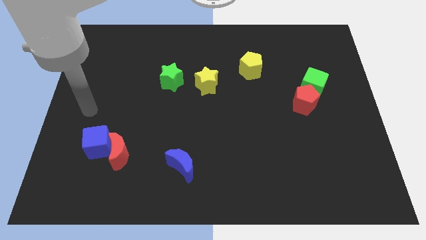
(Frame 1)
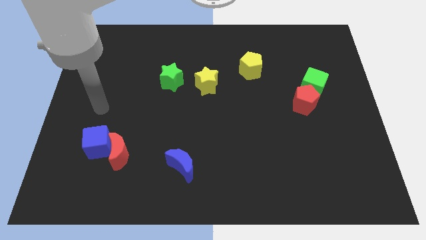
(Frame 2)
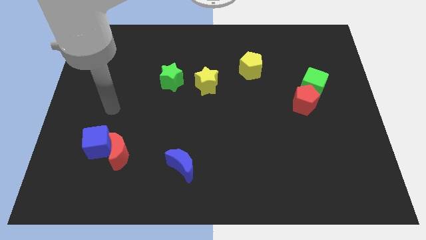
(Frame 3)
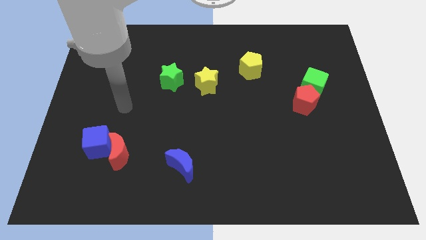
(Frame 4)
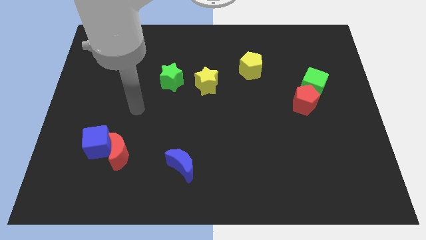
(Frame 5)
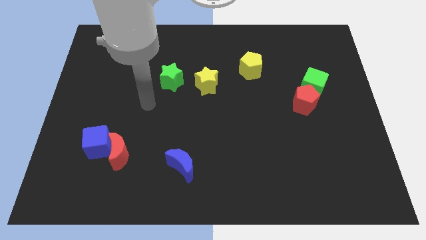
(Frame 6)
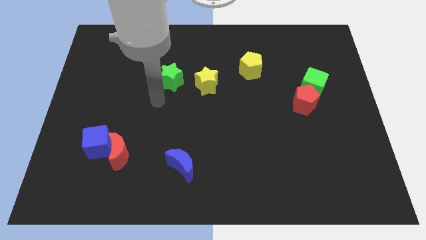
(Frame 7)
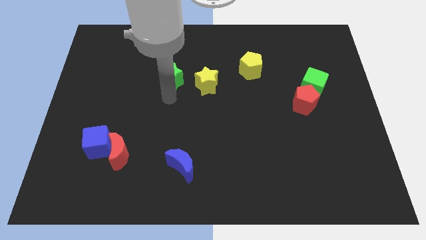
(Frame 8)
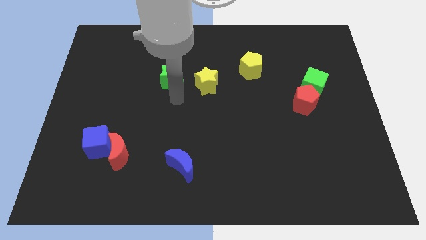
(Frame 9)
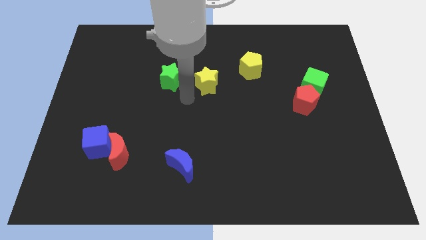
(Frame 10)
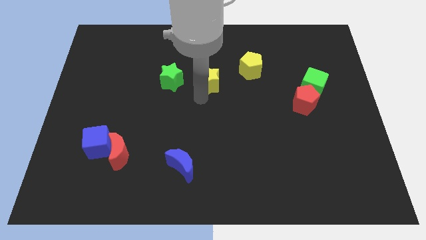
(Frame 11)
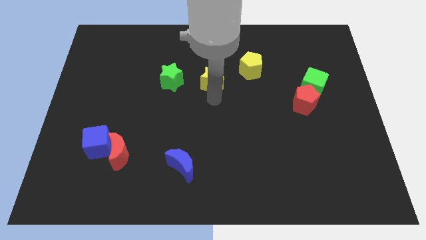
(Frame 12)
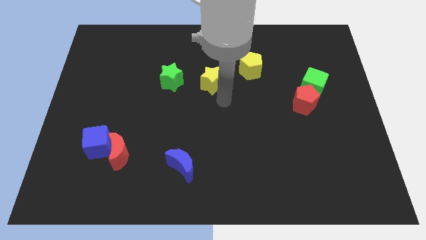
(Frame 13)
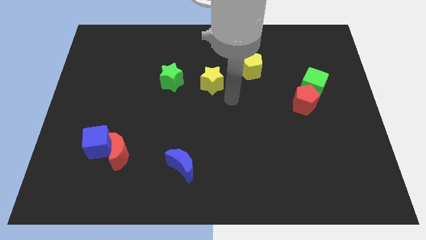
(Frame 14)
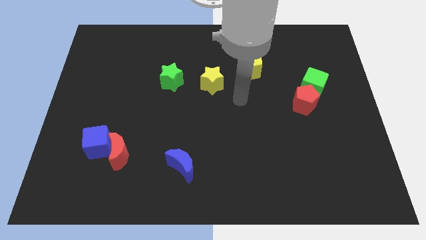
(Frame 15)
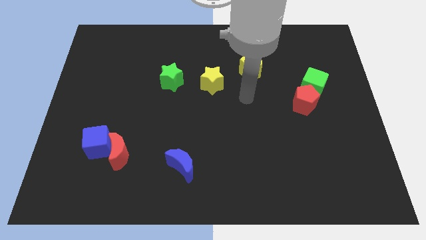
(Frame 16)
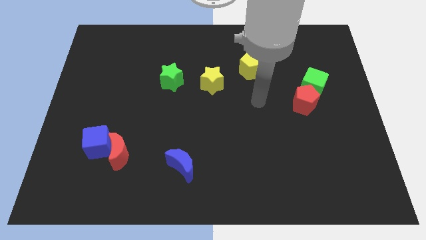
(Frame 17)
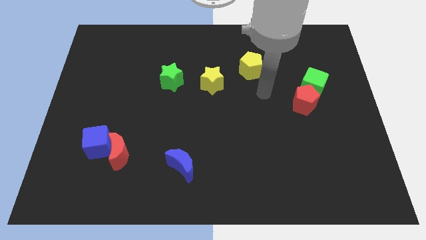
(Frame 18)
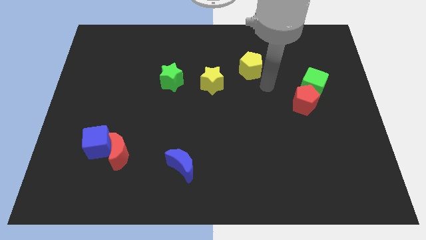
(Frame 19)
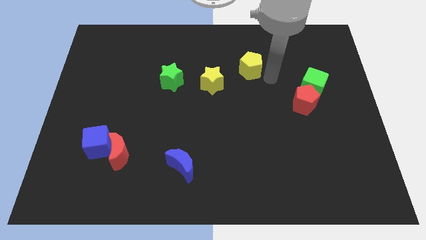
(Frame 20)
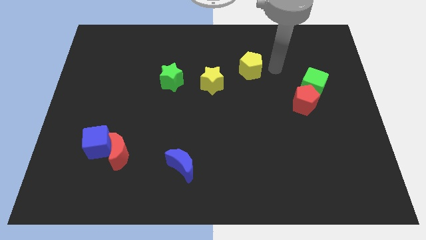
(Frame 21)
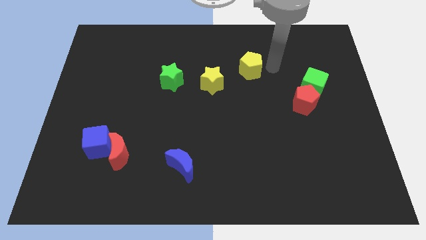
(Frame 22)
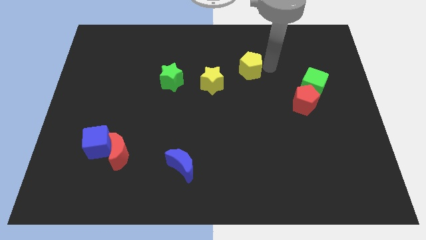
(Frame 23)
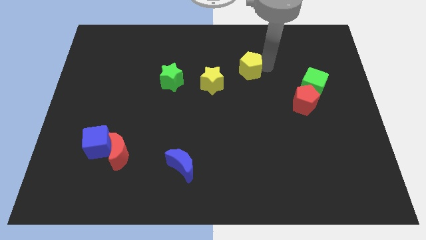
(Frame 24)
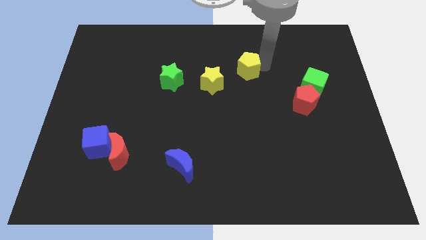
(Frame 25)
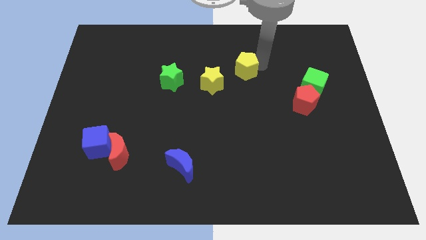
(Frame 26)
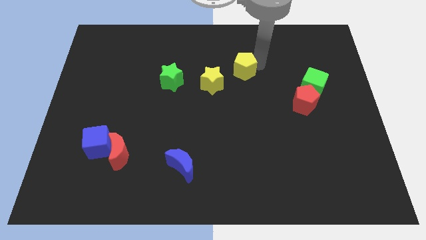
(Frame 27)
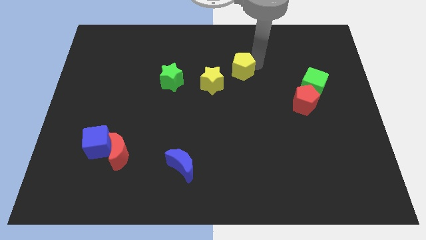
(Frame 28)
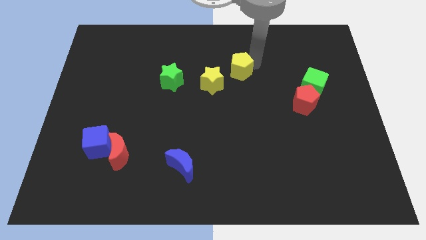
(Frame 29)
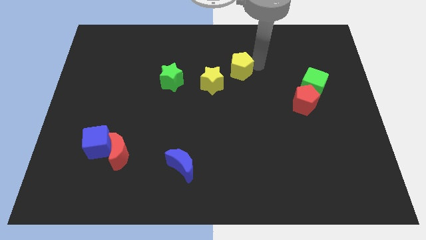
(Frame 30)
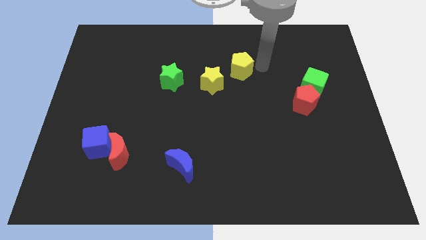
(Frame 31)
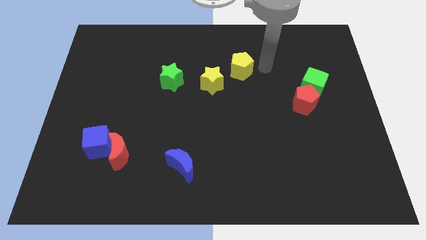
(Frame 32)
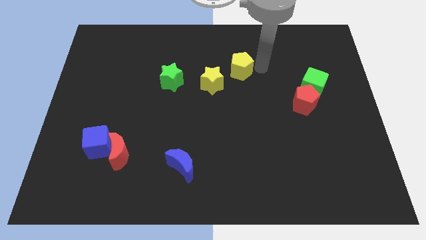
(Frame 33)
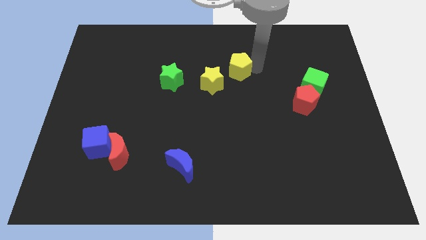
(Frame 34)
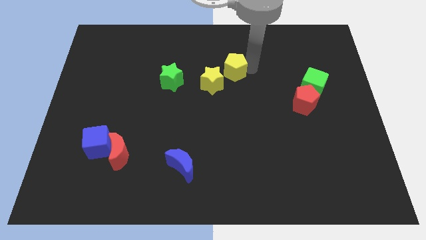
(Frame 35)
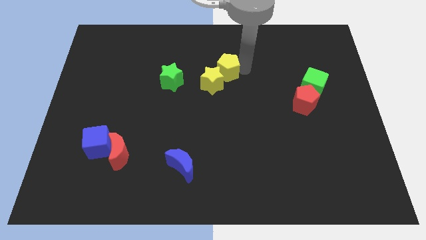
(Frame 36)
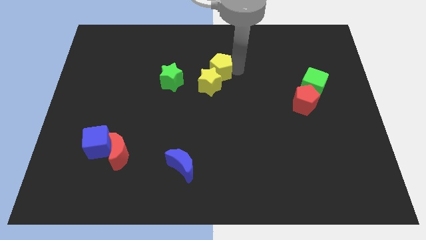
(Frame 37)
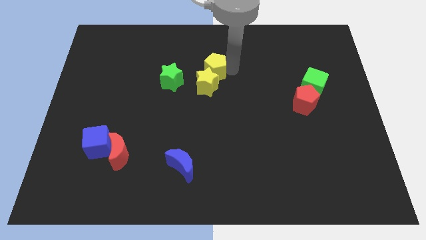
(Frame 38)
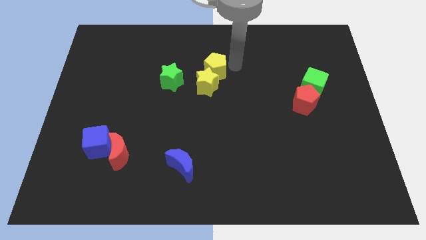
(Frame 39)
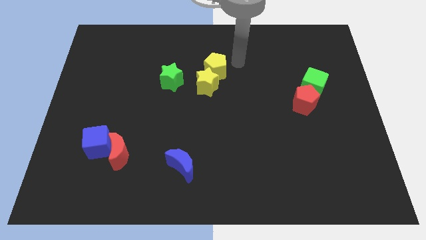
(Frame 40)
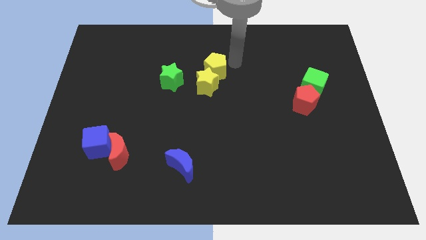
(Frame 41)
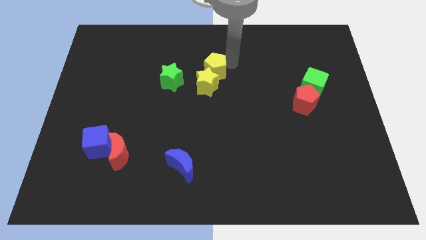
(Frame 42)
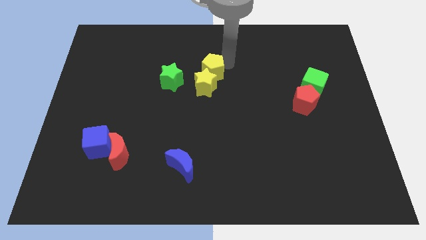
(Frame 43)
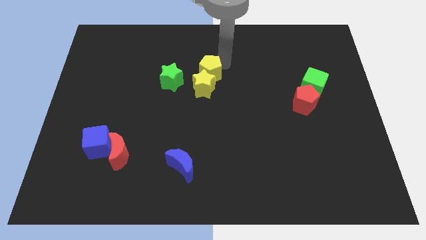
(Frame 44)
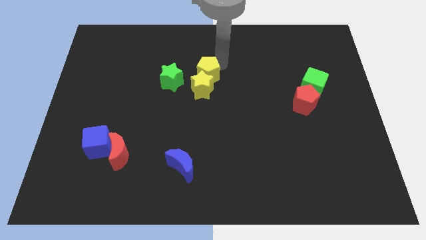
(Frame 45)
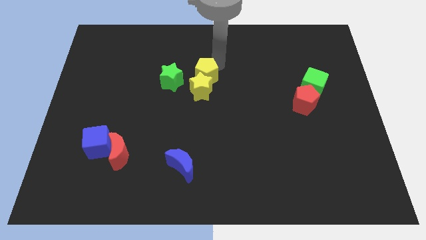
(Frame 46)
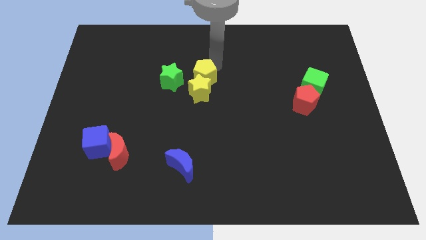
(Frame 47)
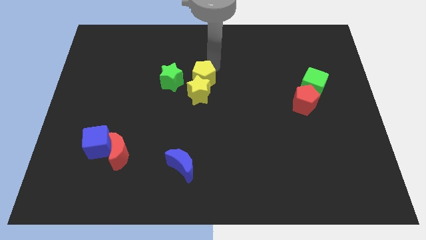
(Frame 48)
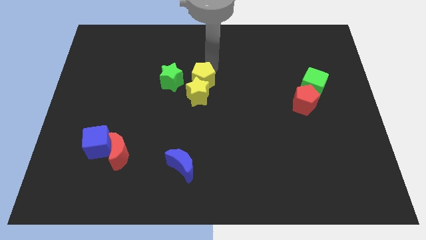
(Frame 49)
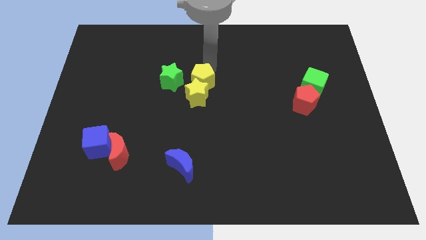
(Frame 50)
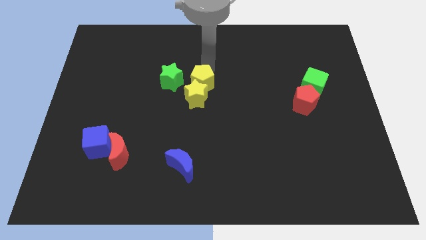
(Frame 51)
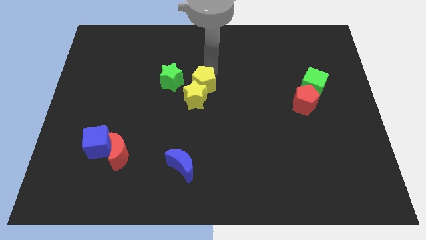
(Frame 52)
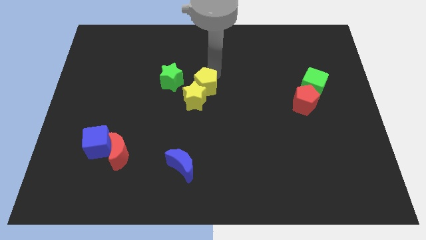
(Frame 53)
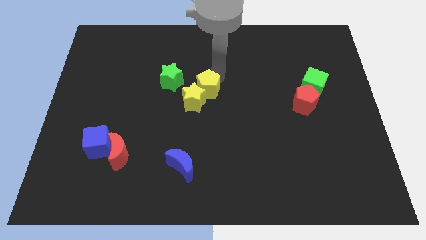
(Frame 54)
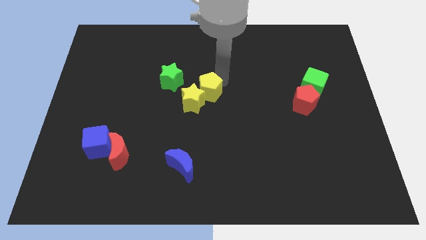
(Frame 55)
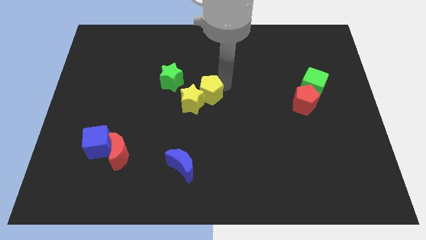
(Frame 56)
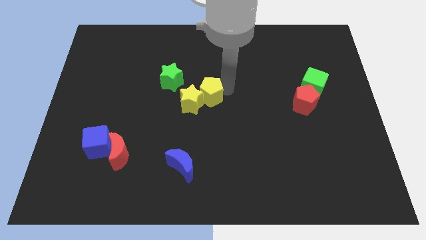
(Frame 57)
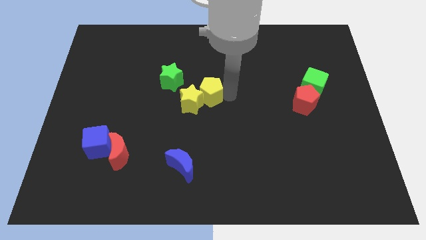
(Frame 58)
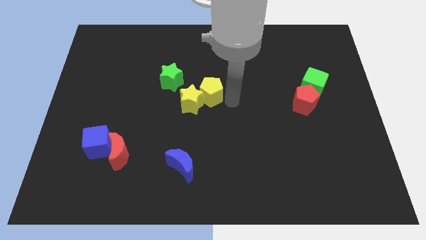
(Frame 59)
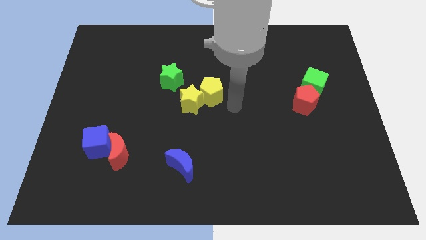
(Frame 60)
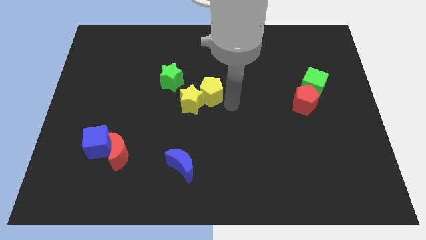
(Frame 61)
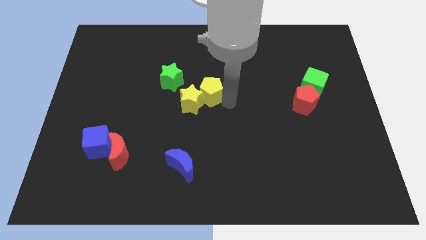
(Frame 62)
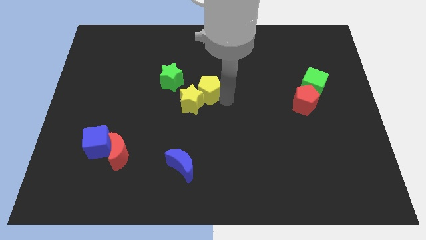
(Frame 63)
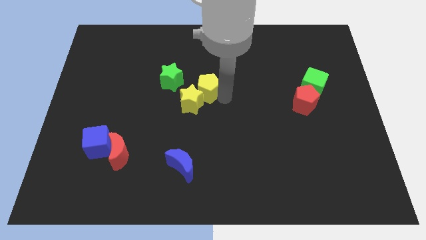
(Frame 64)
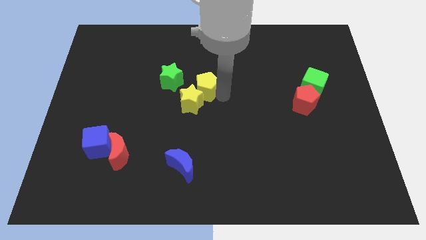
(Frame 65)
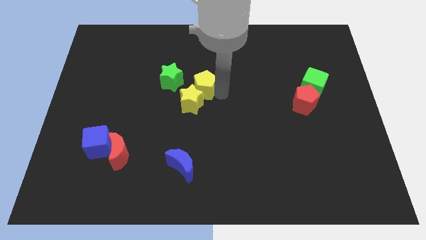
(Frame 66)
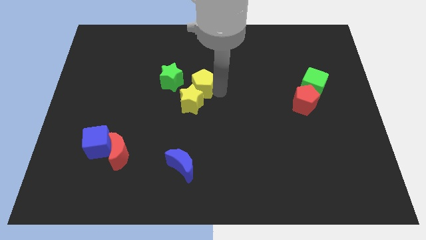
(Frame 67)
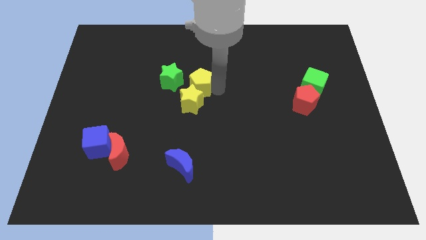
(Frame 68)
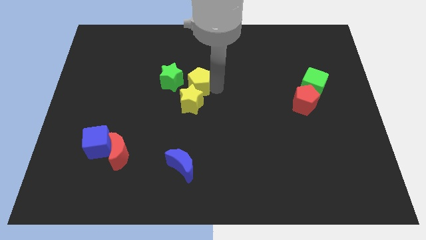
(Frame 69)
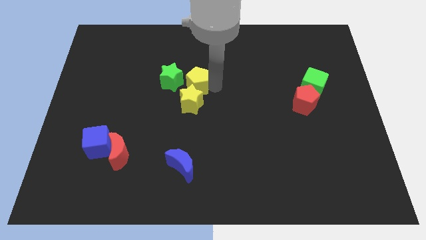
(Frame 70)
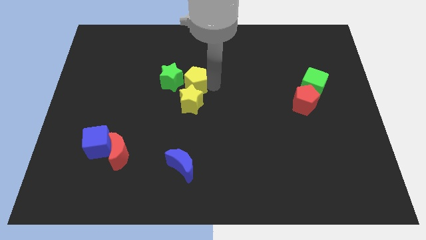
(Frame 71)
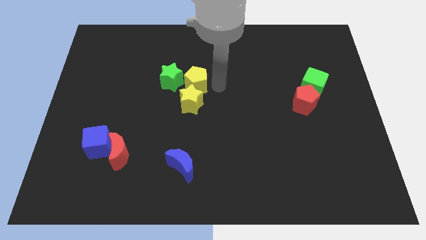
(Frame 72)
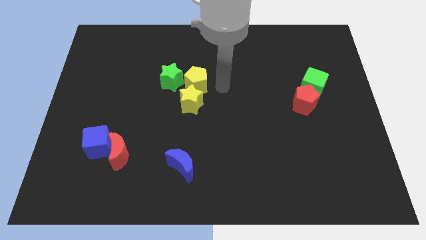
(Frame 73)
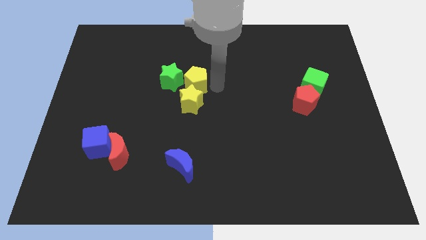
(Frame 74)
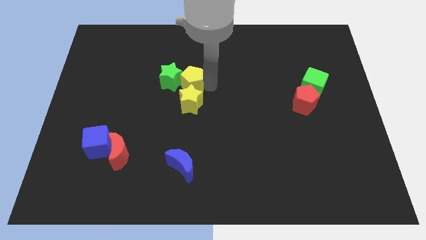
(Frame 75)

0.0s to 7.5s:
move the yellow pentagon close to the green star

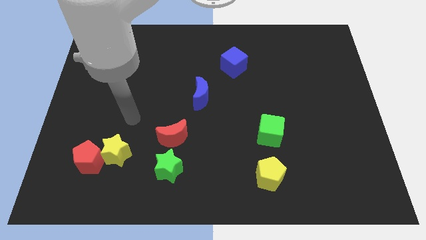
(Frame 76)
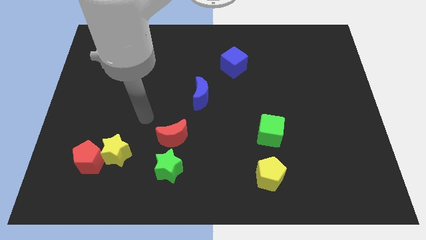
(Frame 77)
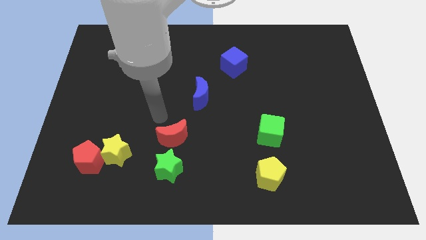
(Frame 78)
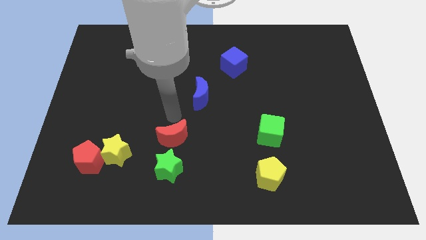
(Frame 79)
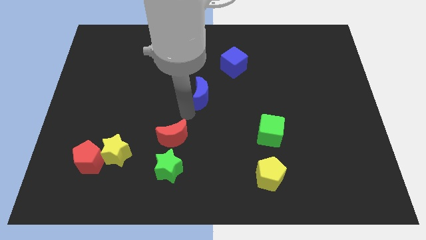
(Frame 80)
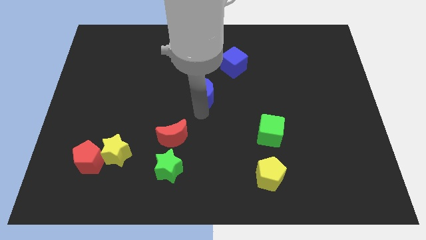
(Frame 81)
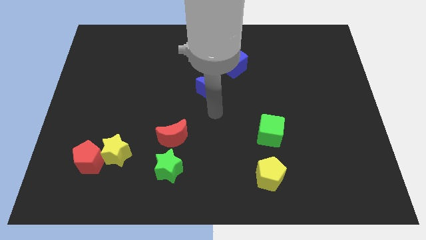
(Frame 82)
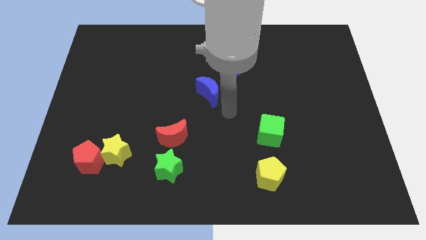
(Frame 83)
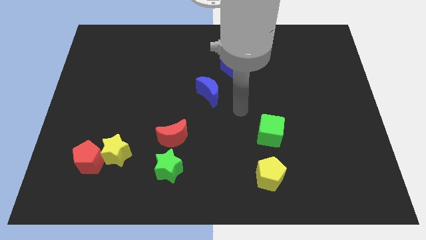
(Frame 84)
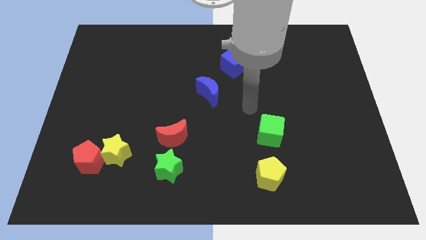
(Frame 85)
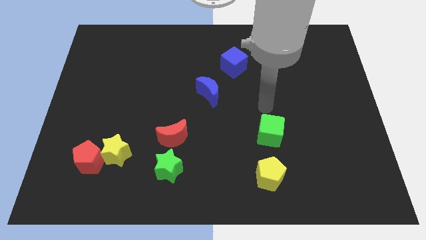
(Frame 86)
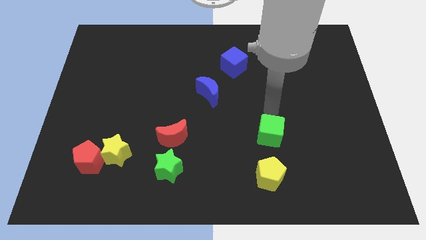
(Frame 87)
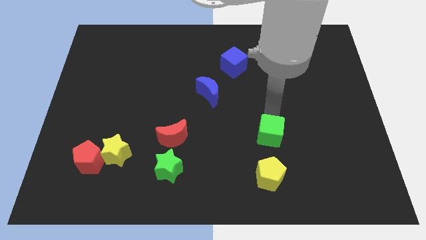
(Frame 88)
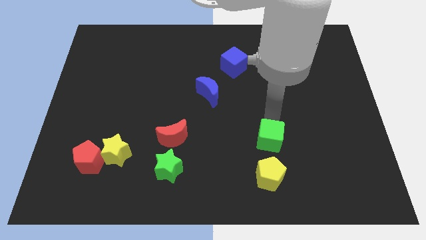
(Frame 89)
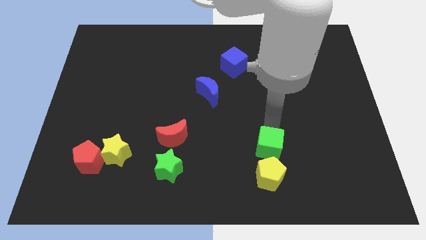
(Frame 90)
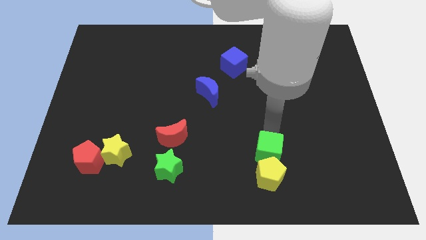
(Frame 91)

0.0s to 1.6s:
push the green cube to the yellow pentagon
